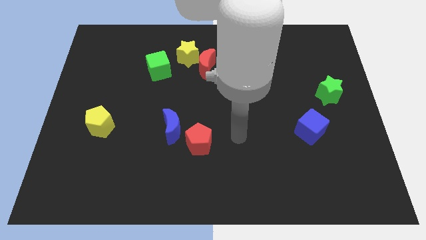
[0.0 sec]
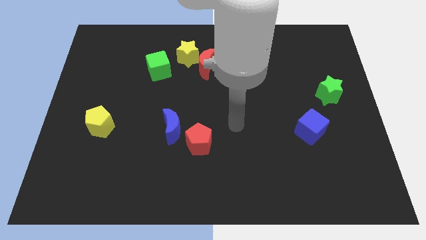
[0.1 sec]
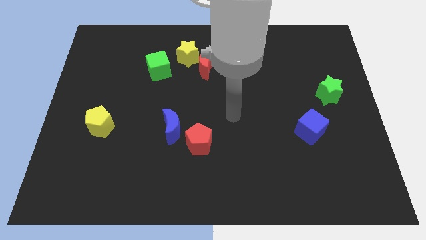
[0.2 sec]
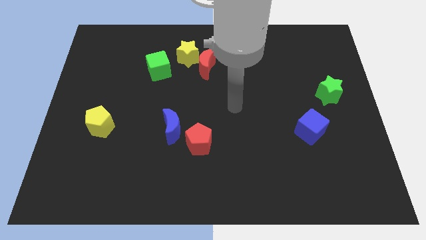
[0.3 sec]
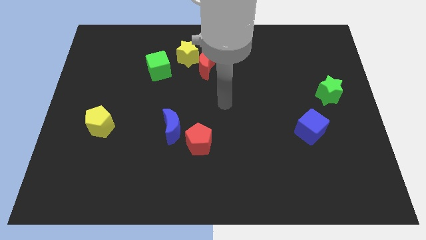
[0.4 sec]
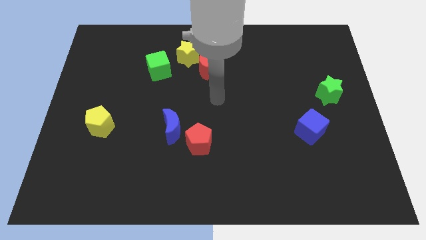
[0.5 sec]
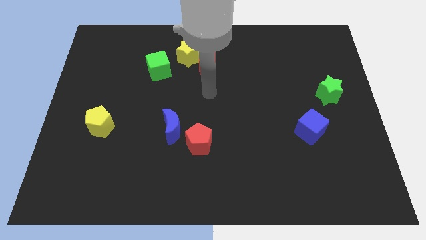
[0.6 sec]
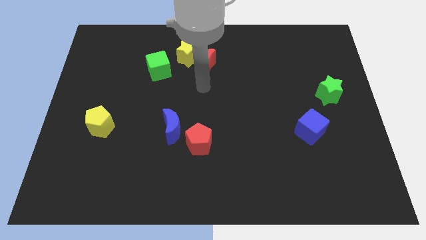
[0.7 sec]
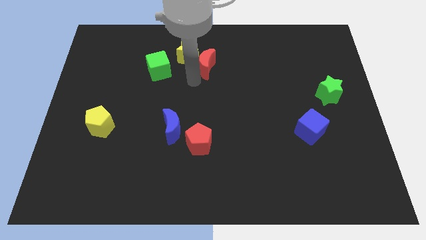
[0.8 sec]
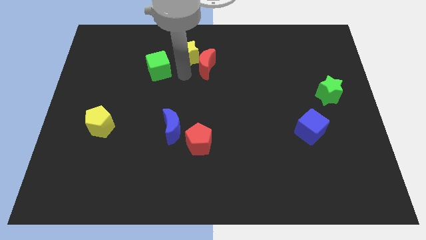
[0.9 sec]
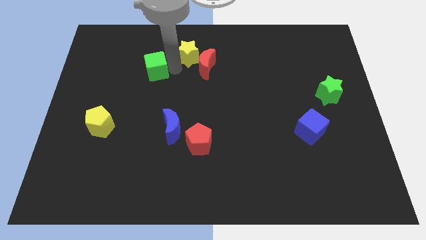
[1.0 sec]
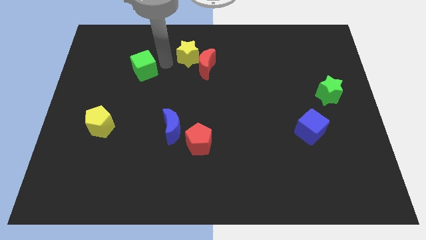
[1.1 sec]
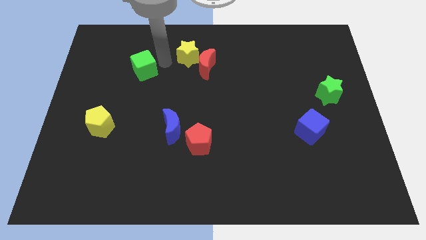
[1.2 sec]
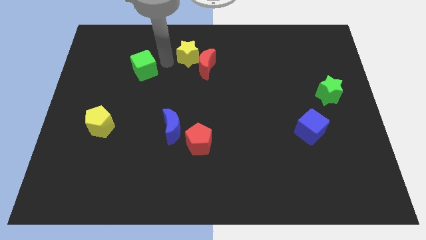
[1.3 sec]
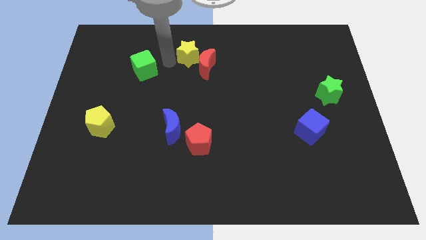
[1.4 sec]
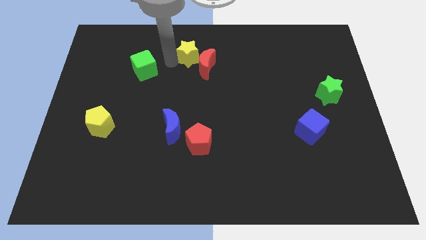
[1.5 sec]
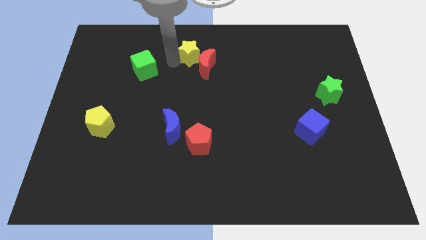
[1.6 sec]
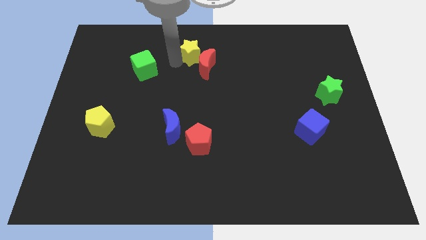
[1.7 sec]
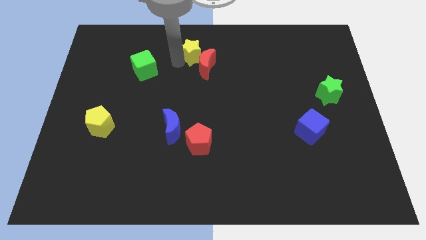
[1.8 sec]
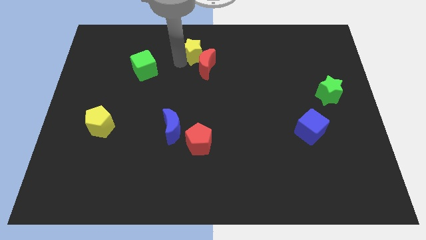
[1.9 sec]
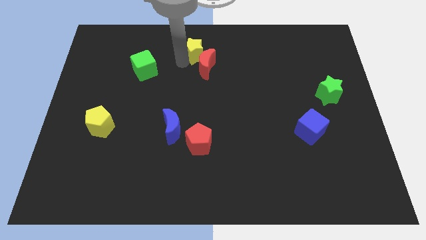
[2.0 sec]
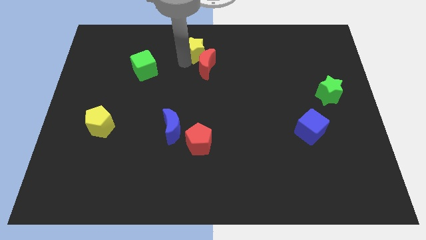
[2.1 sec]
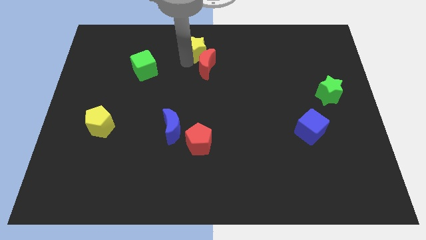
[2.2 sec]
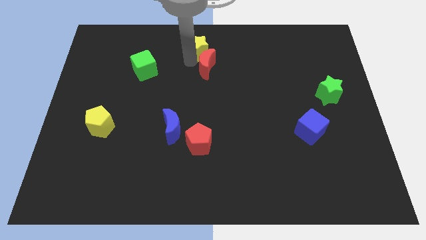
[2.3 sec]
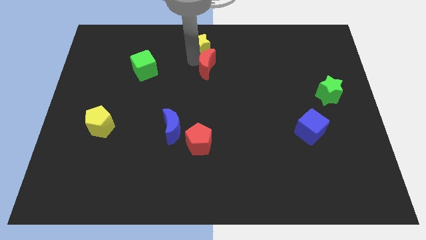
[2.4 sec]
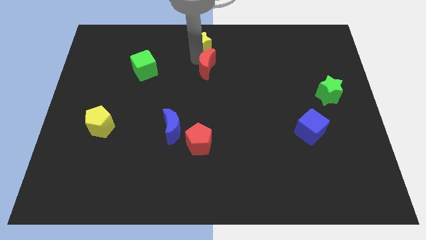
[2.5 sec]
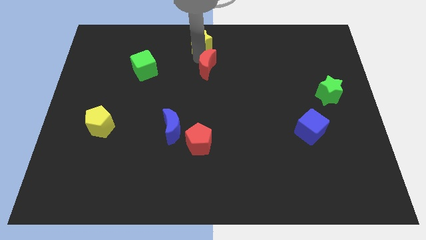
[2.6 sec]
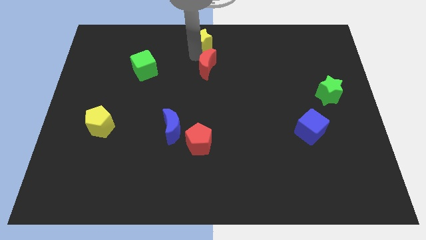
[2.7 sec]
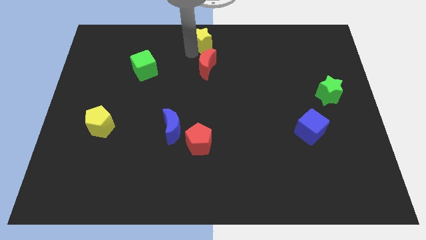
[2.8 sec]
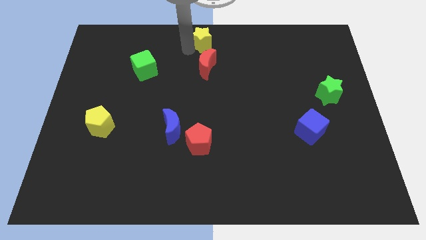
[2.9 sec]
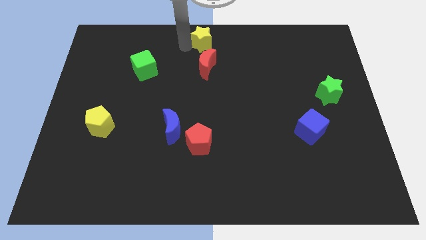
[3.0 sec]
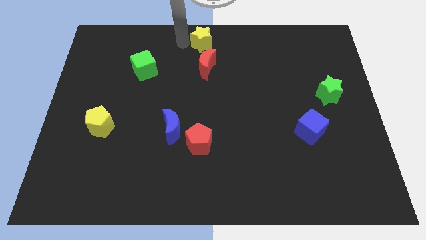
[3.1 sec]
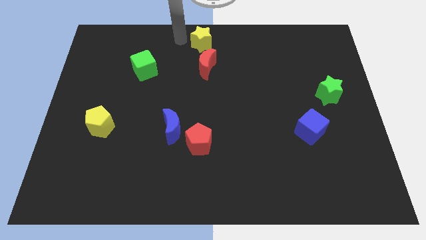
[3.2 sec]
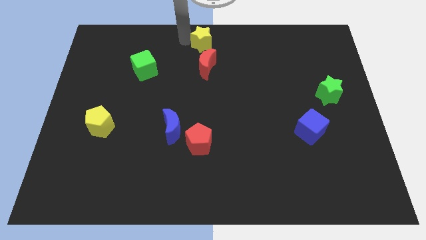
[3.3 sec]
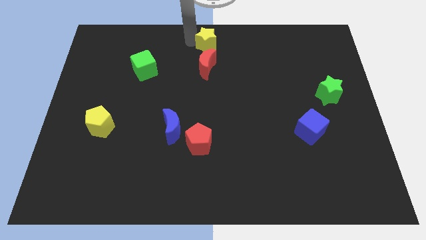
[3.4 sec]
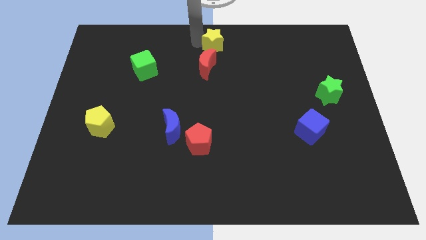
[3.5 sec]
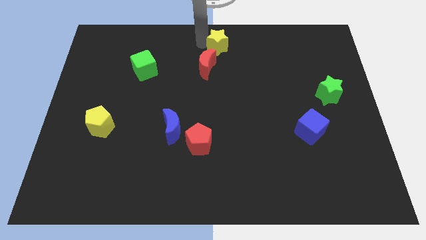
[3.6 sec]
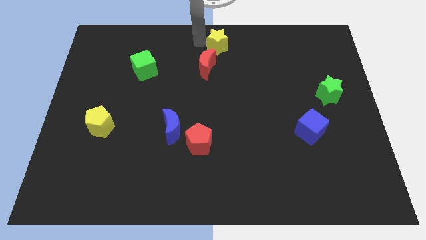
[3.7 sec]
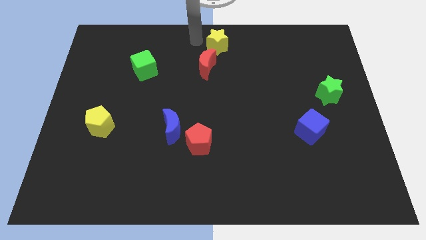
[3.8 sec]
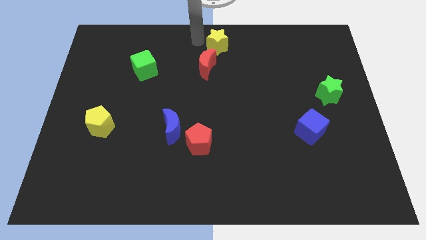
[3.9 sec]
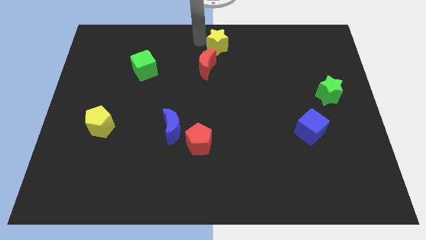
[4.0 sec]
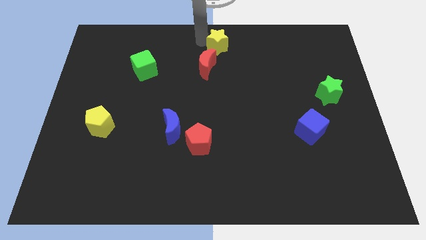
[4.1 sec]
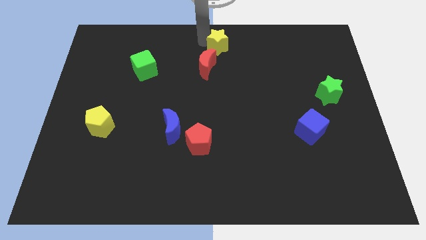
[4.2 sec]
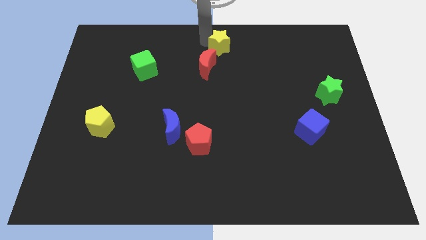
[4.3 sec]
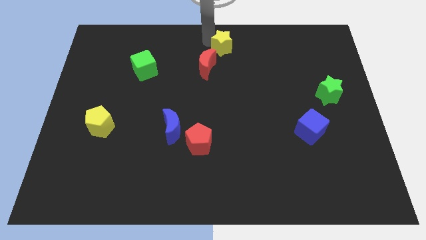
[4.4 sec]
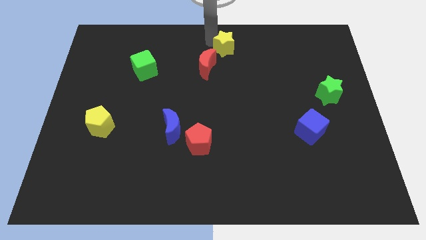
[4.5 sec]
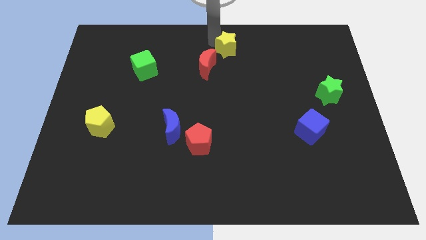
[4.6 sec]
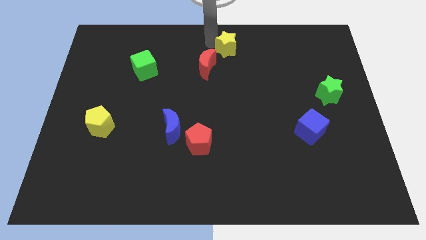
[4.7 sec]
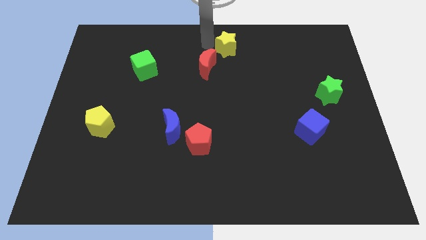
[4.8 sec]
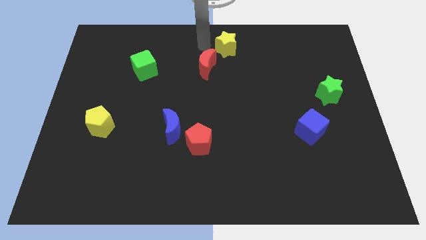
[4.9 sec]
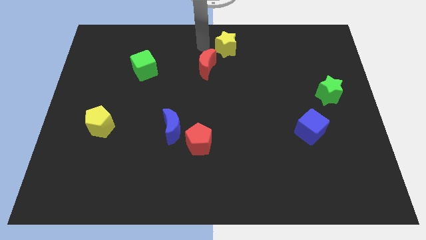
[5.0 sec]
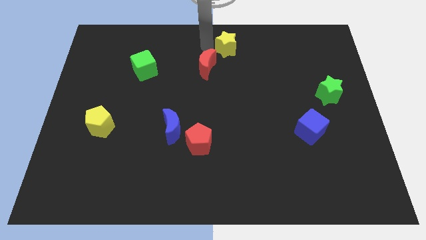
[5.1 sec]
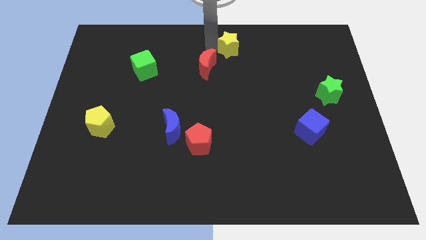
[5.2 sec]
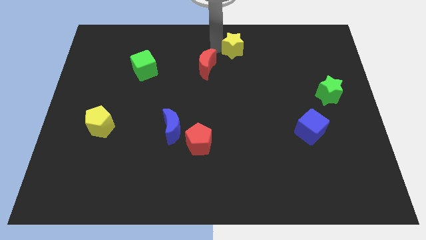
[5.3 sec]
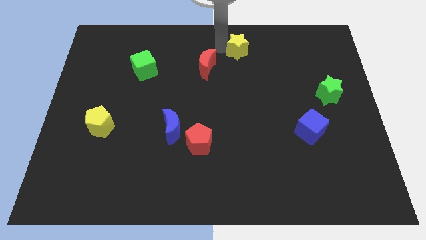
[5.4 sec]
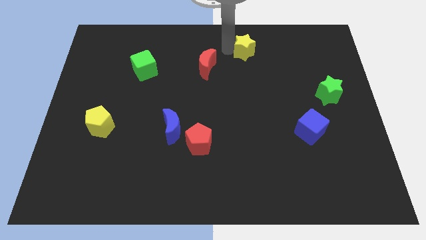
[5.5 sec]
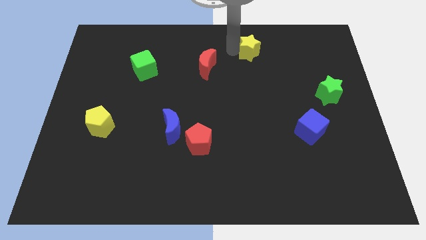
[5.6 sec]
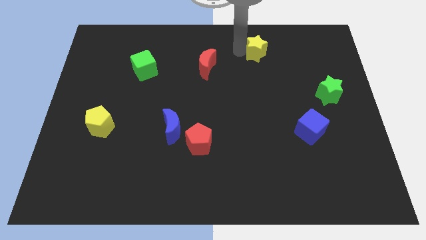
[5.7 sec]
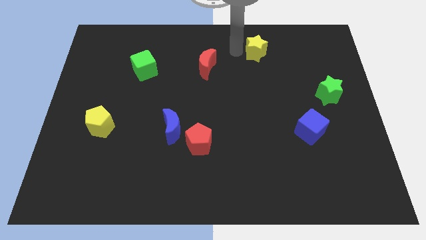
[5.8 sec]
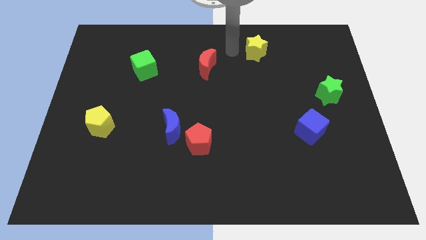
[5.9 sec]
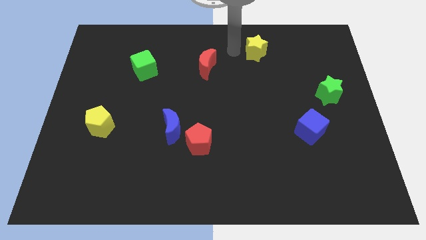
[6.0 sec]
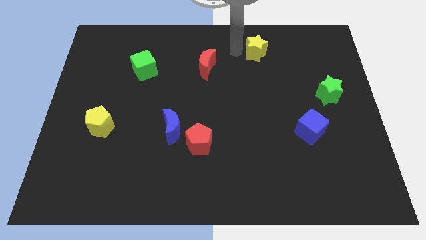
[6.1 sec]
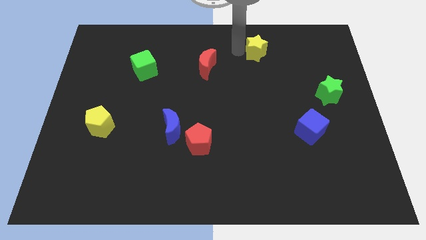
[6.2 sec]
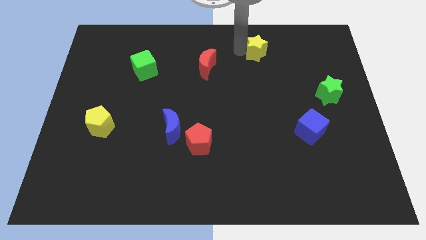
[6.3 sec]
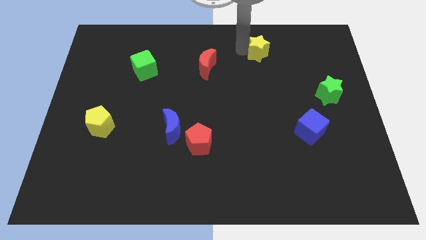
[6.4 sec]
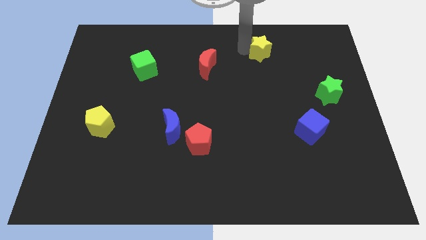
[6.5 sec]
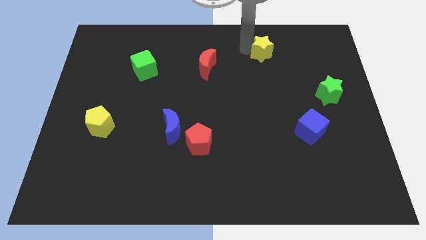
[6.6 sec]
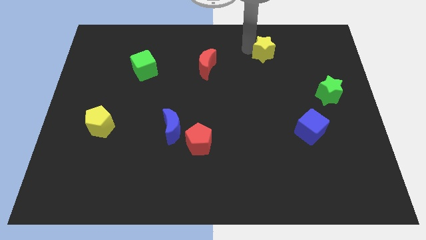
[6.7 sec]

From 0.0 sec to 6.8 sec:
push the yellow star to the right

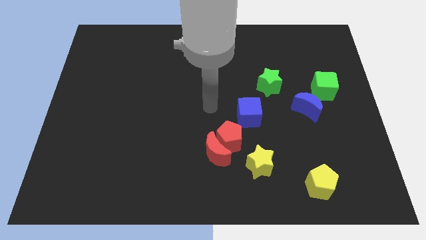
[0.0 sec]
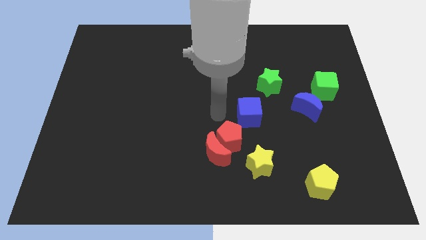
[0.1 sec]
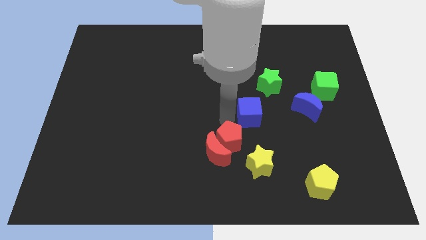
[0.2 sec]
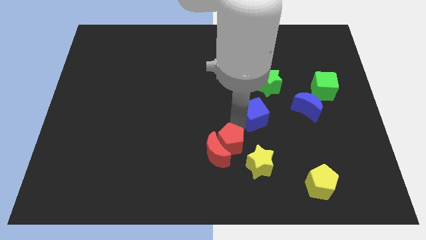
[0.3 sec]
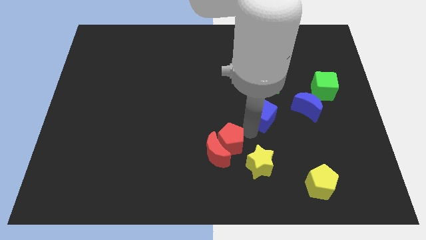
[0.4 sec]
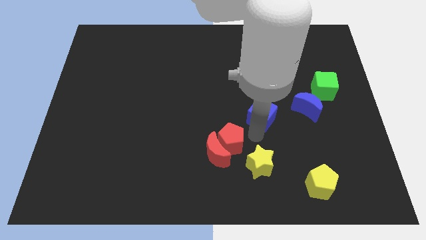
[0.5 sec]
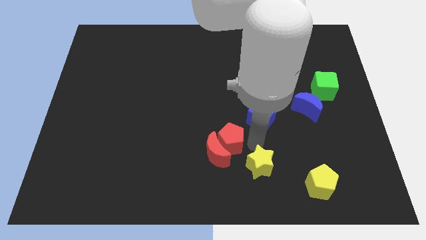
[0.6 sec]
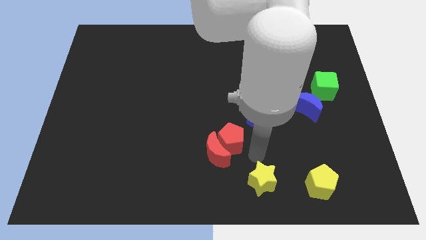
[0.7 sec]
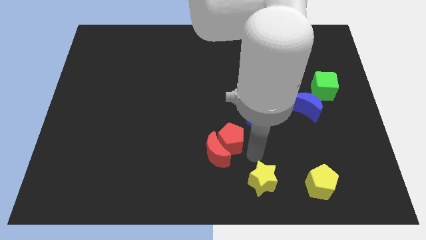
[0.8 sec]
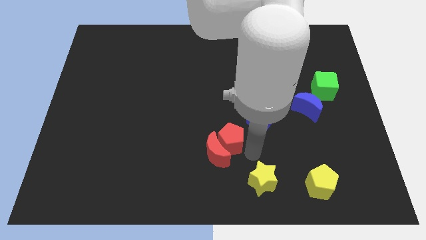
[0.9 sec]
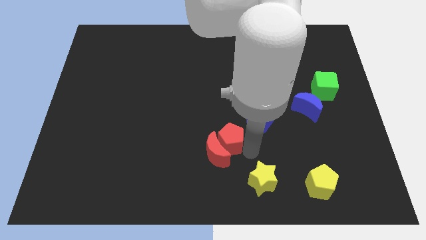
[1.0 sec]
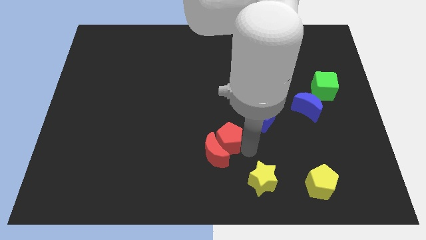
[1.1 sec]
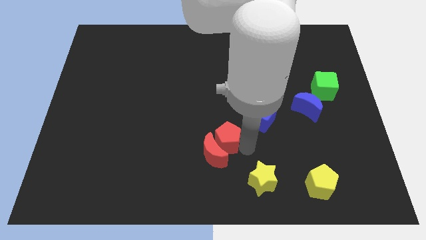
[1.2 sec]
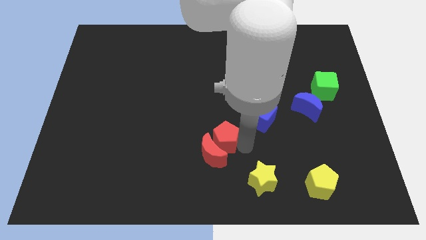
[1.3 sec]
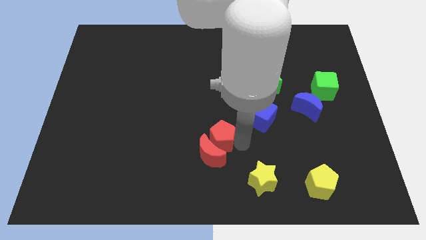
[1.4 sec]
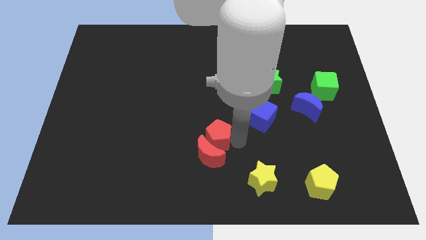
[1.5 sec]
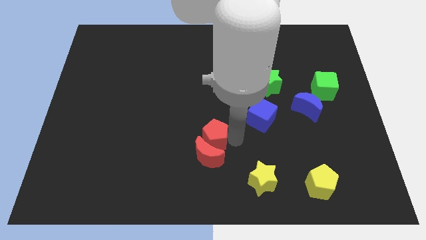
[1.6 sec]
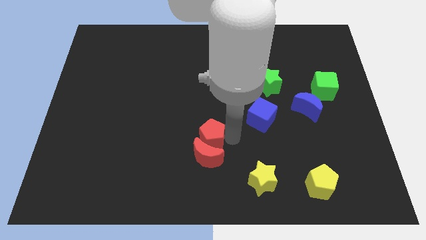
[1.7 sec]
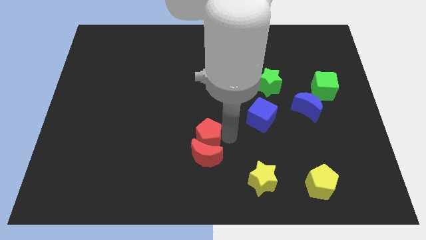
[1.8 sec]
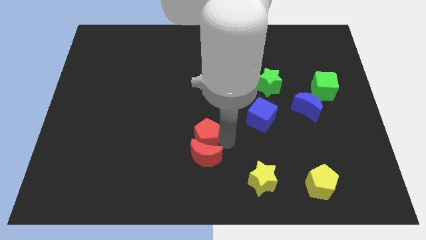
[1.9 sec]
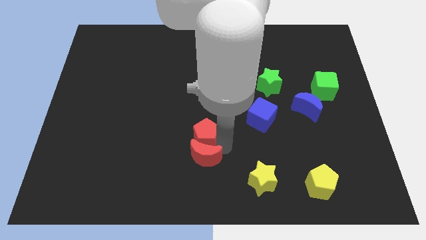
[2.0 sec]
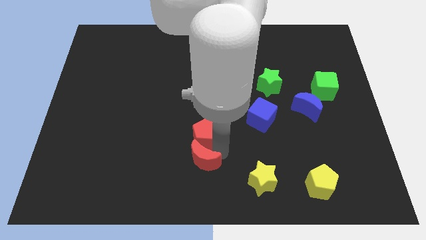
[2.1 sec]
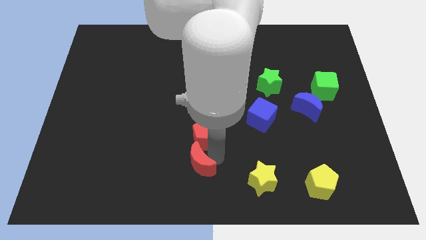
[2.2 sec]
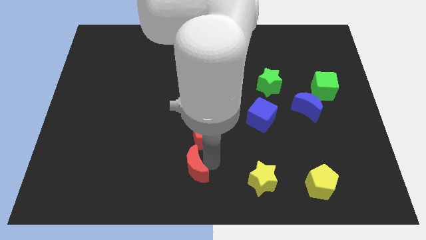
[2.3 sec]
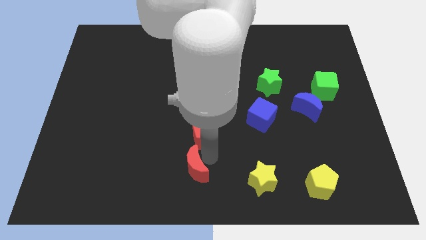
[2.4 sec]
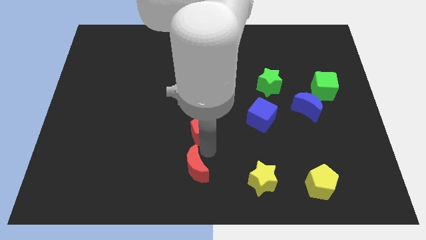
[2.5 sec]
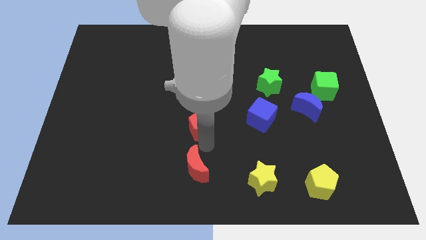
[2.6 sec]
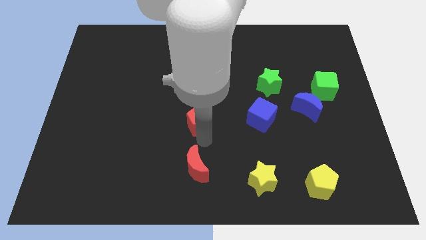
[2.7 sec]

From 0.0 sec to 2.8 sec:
push the red pentagon upwards and left a little
